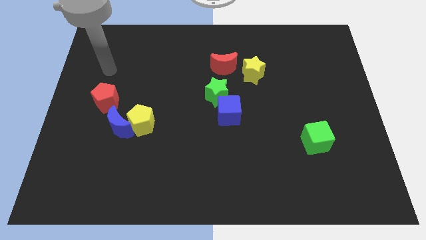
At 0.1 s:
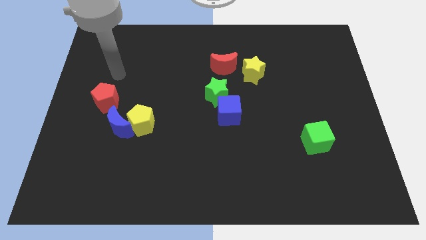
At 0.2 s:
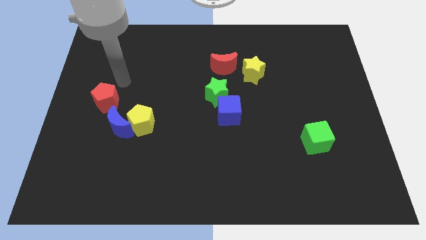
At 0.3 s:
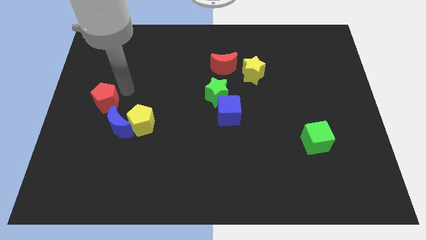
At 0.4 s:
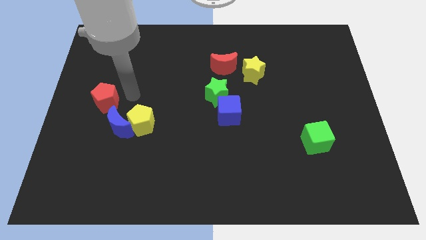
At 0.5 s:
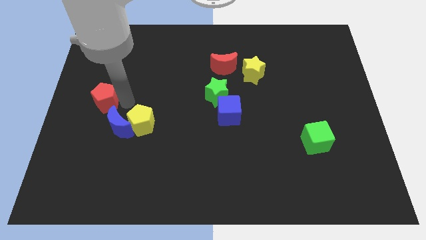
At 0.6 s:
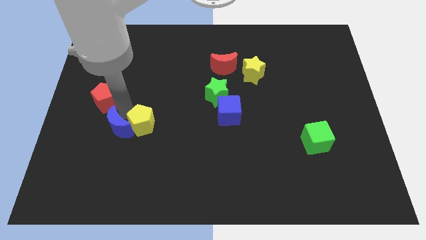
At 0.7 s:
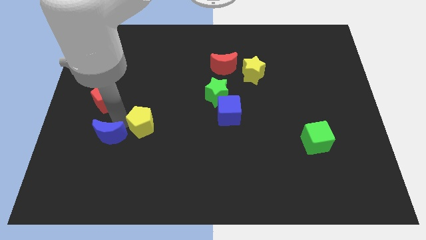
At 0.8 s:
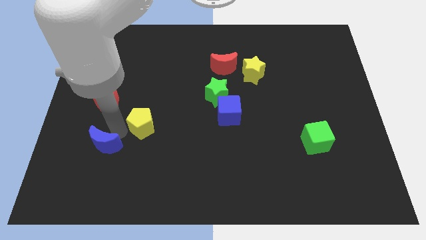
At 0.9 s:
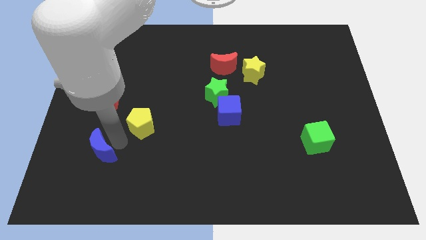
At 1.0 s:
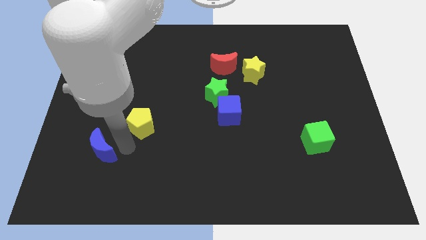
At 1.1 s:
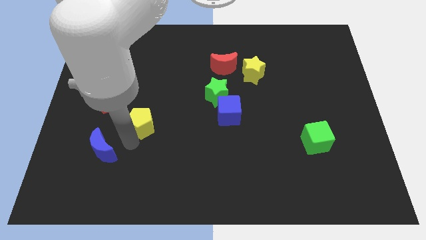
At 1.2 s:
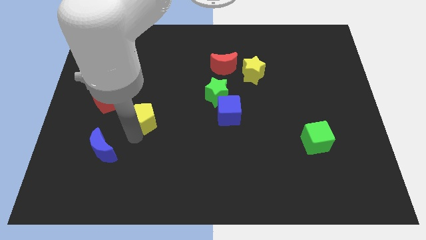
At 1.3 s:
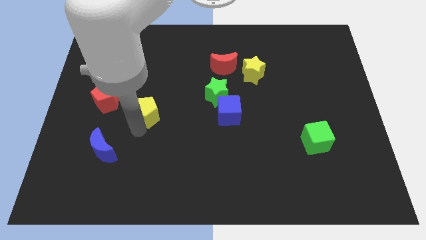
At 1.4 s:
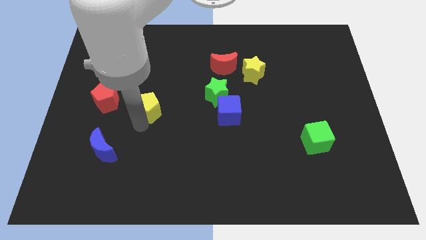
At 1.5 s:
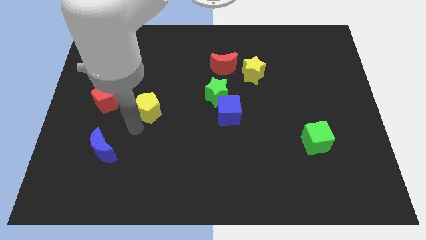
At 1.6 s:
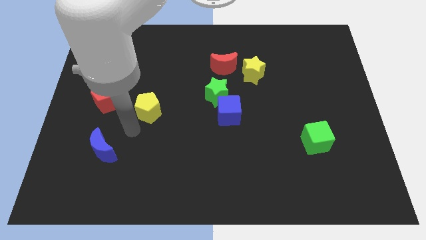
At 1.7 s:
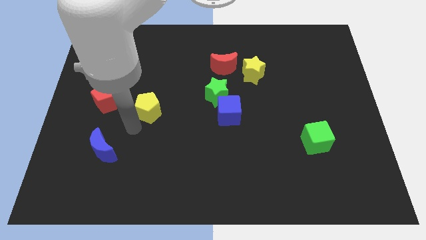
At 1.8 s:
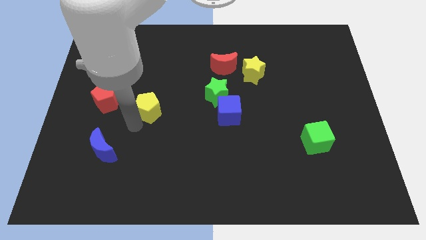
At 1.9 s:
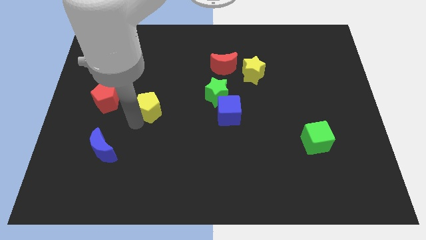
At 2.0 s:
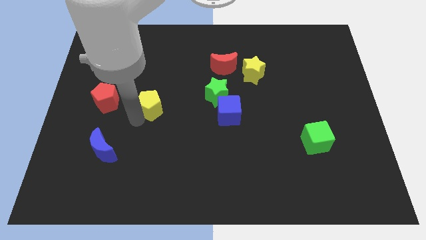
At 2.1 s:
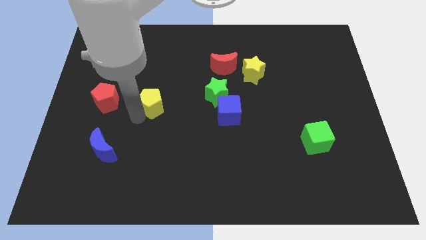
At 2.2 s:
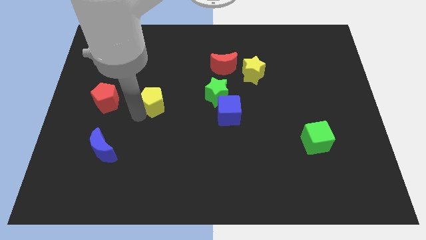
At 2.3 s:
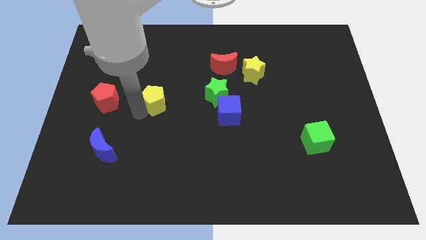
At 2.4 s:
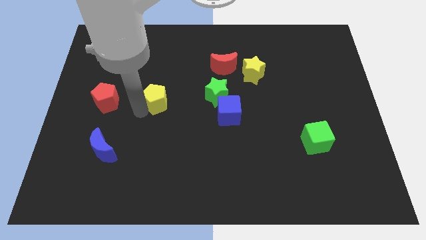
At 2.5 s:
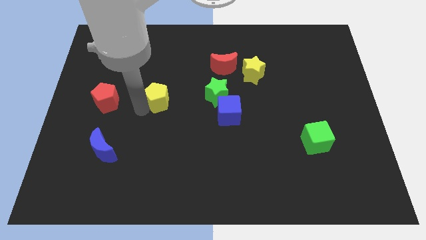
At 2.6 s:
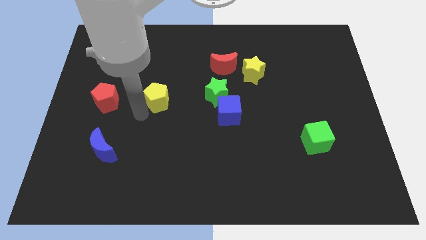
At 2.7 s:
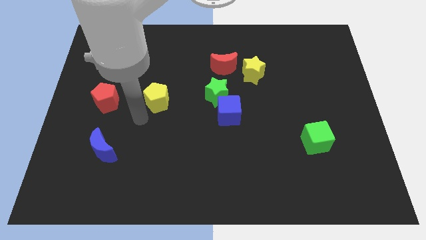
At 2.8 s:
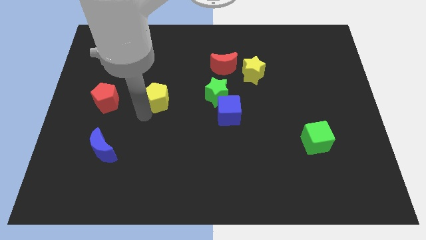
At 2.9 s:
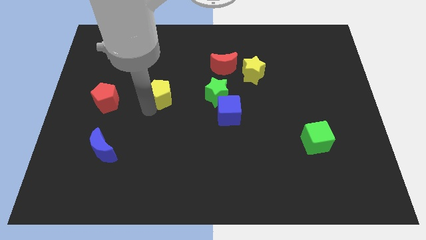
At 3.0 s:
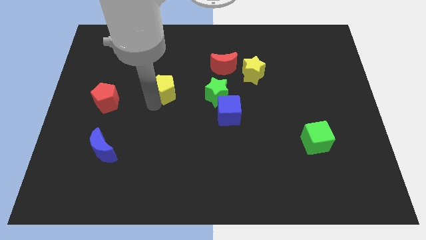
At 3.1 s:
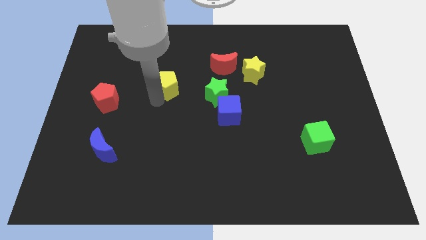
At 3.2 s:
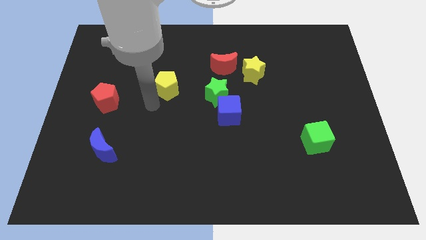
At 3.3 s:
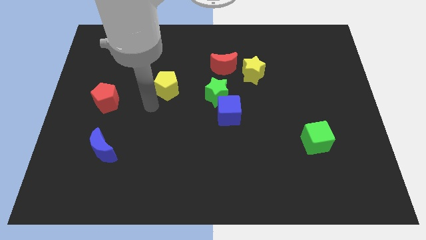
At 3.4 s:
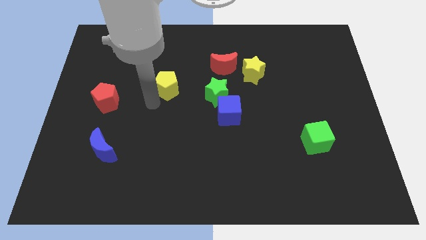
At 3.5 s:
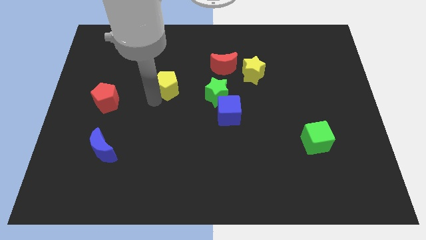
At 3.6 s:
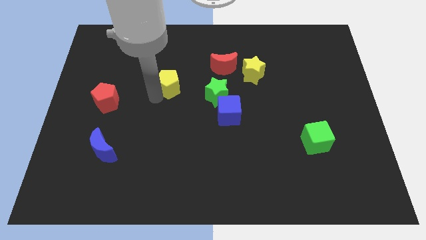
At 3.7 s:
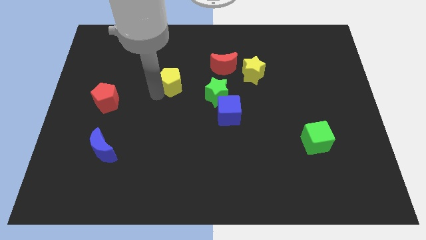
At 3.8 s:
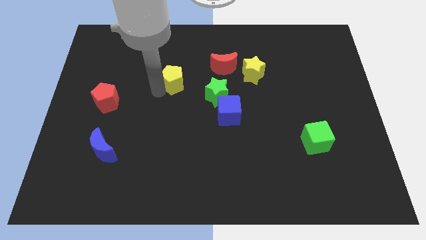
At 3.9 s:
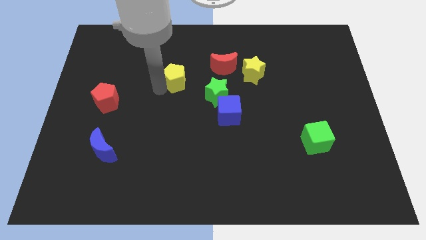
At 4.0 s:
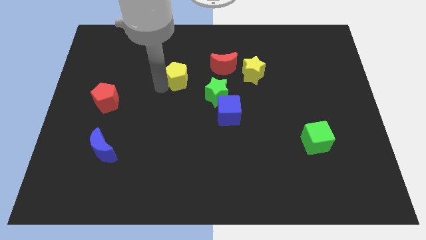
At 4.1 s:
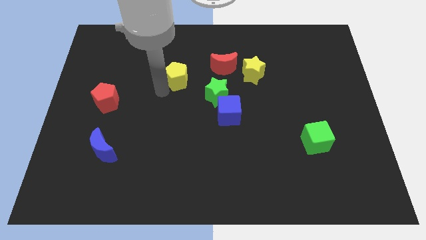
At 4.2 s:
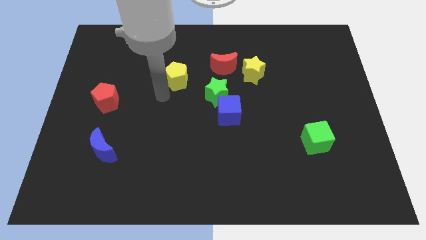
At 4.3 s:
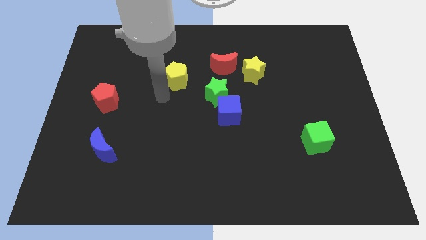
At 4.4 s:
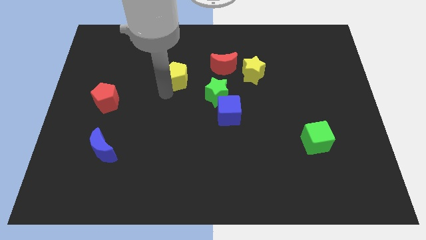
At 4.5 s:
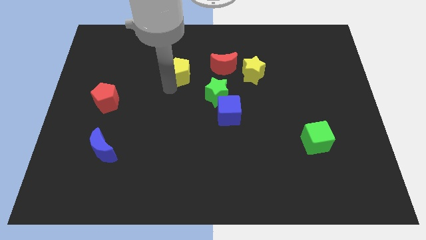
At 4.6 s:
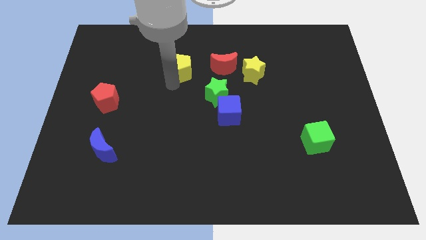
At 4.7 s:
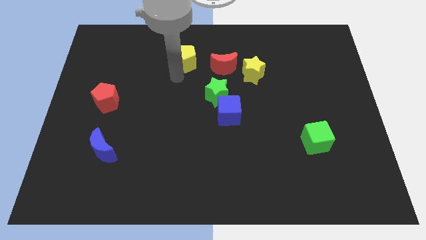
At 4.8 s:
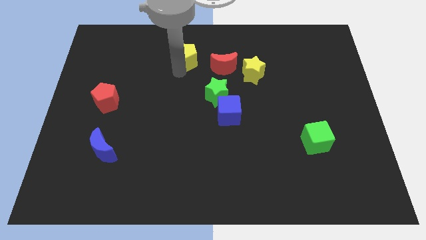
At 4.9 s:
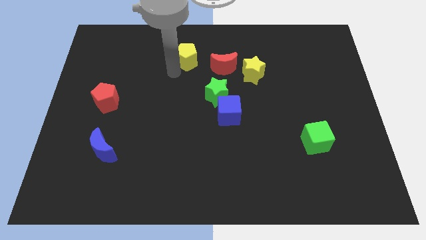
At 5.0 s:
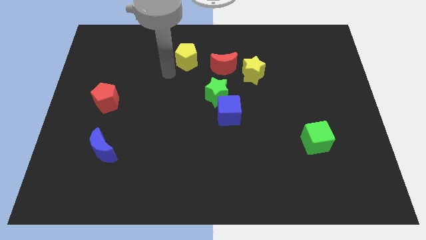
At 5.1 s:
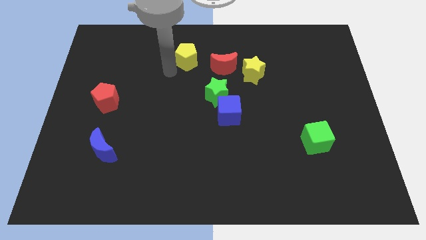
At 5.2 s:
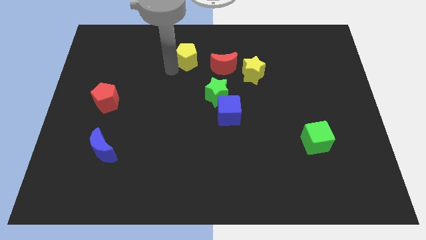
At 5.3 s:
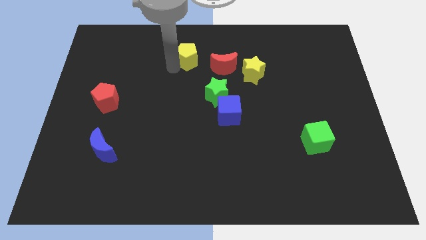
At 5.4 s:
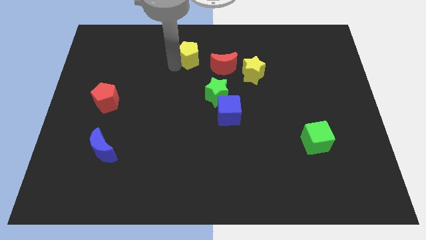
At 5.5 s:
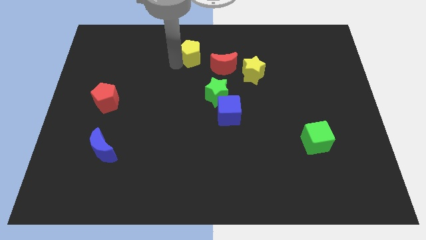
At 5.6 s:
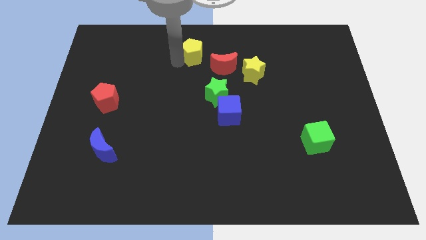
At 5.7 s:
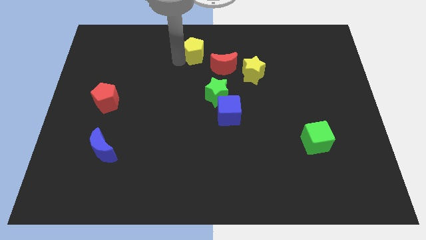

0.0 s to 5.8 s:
slide the yellow pentagon to the towards your base
